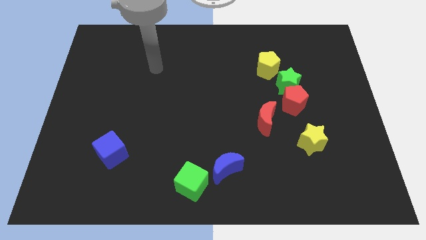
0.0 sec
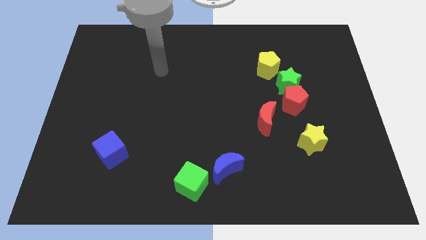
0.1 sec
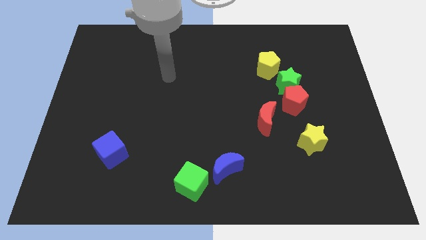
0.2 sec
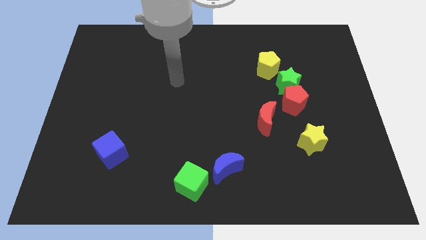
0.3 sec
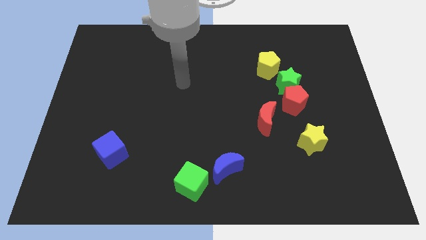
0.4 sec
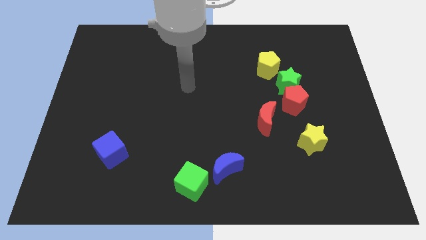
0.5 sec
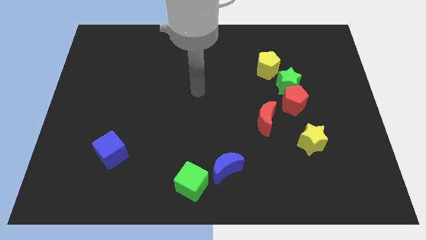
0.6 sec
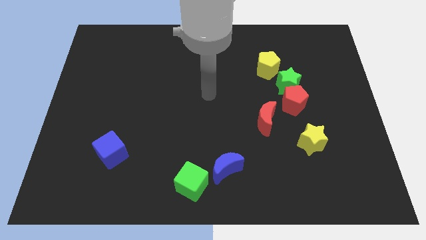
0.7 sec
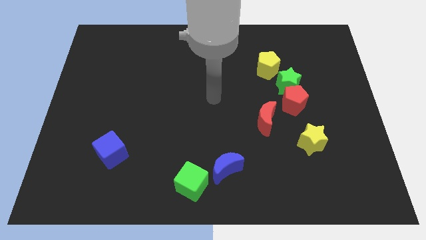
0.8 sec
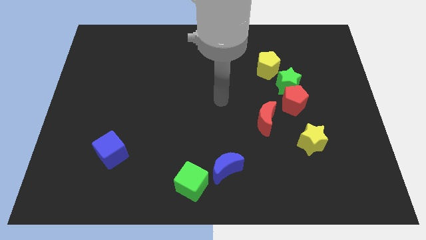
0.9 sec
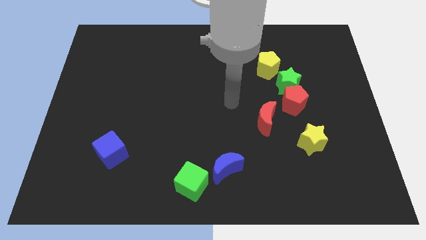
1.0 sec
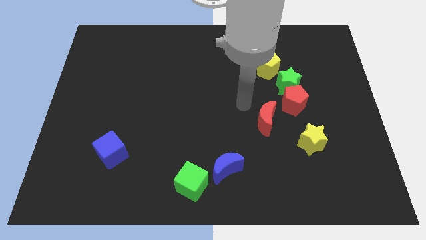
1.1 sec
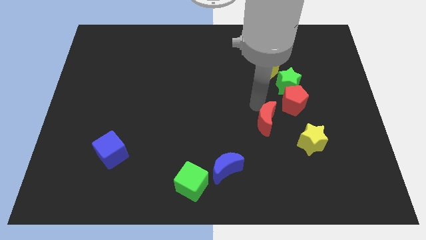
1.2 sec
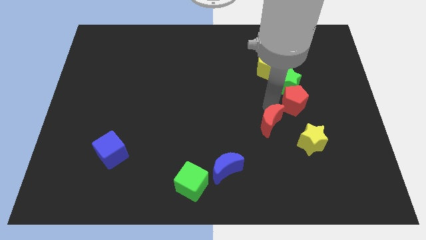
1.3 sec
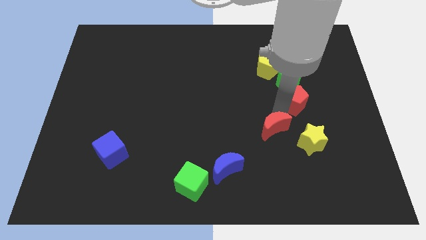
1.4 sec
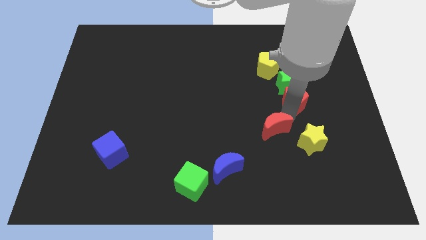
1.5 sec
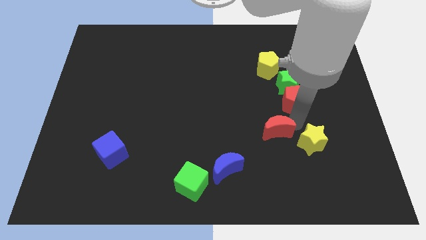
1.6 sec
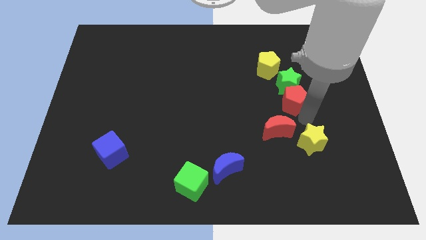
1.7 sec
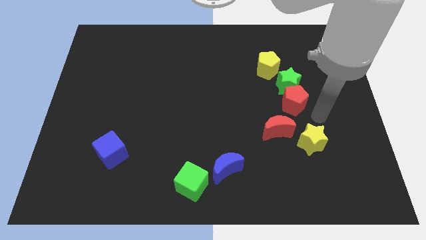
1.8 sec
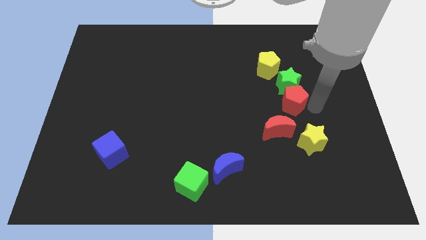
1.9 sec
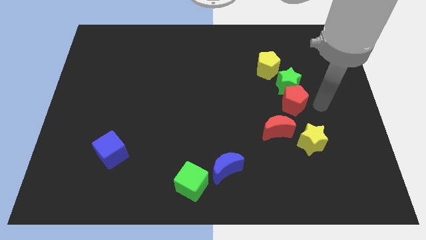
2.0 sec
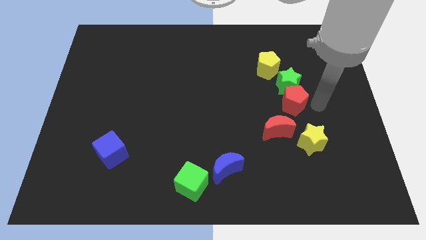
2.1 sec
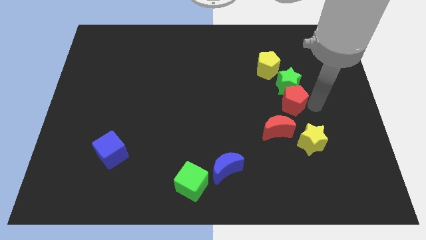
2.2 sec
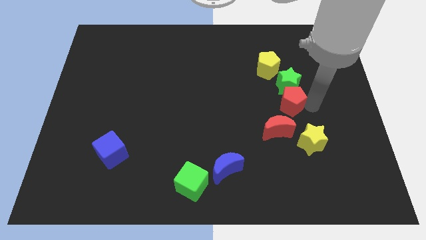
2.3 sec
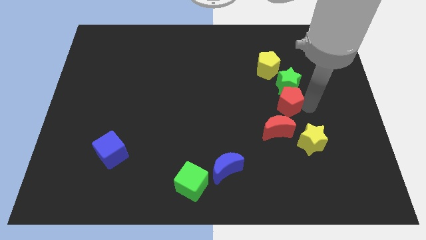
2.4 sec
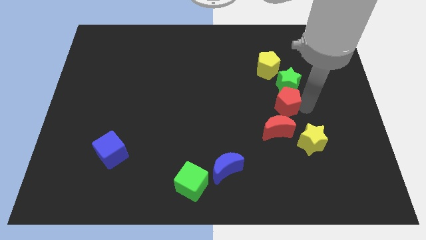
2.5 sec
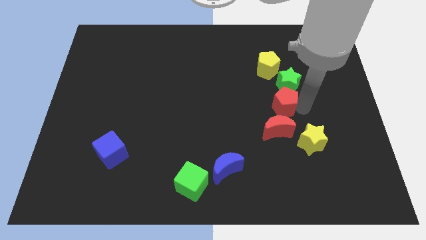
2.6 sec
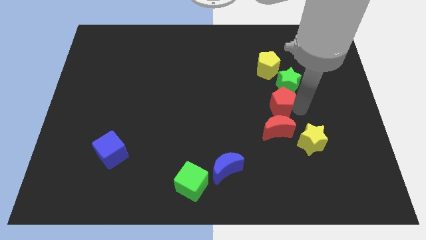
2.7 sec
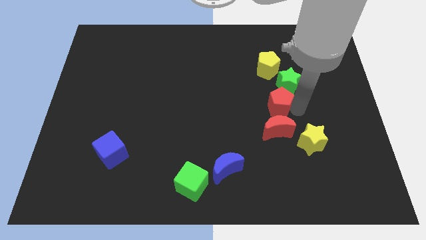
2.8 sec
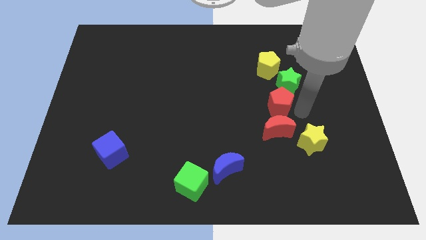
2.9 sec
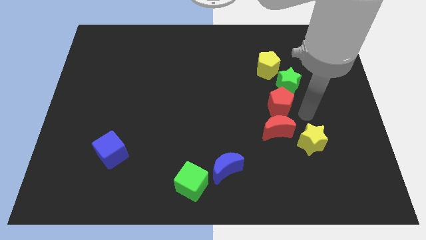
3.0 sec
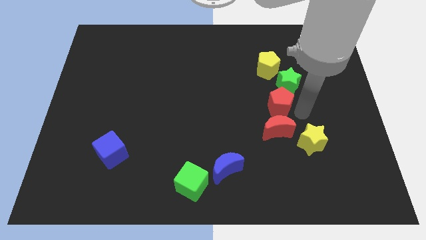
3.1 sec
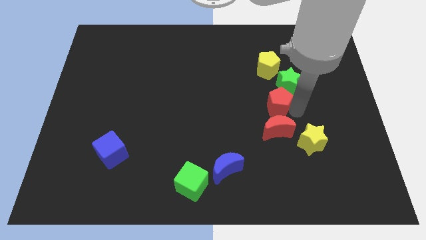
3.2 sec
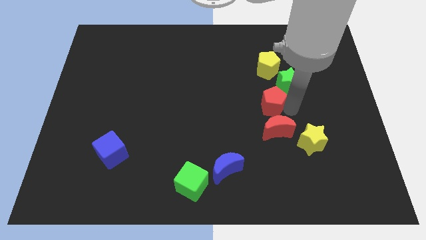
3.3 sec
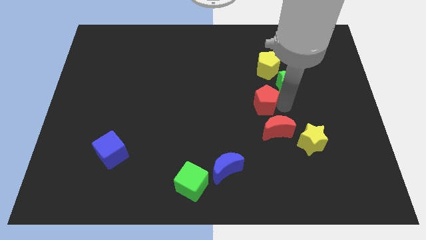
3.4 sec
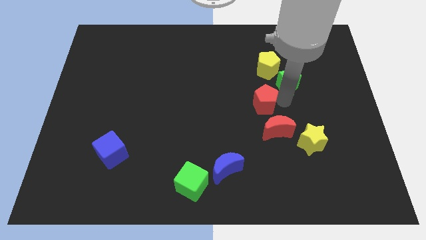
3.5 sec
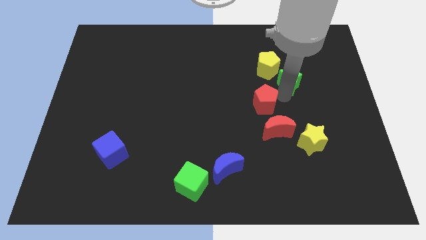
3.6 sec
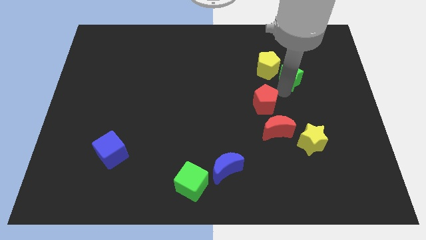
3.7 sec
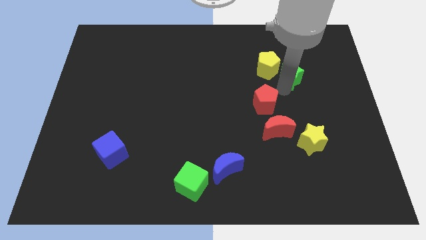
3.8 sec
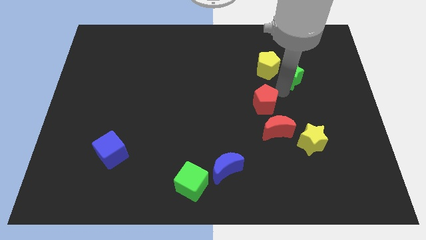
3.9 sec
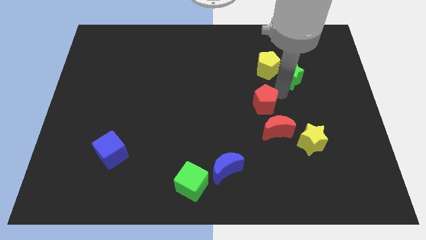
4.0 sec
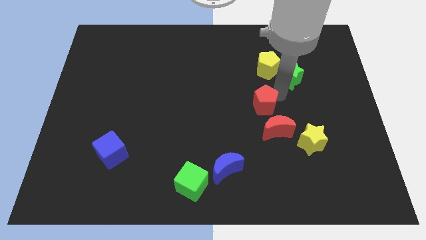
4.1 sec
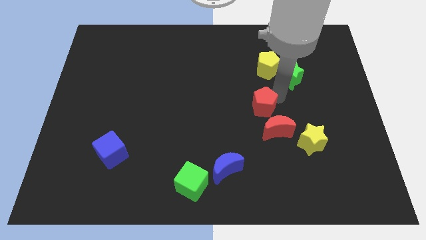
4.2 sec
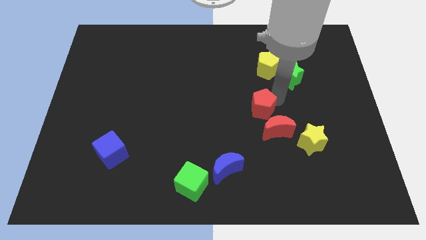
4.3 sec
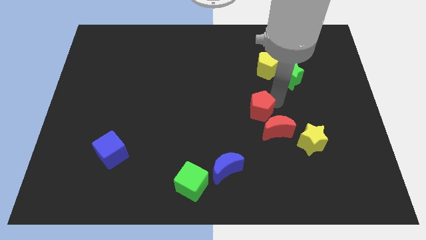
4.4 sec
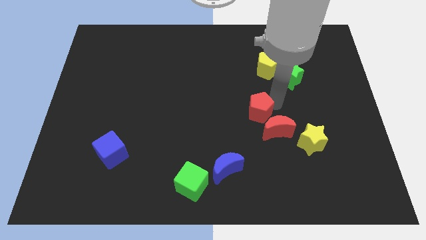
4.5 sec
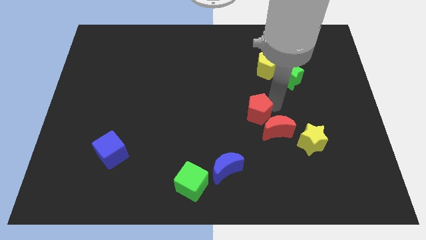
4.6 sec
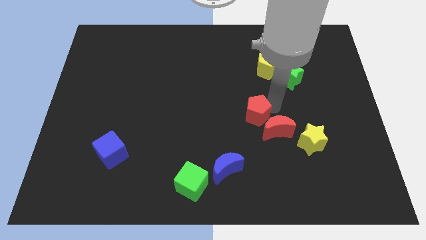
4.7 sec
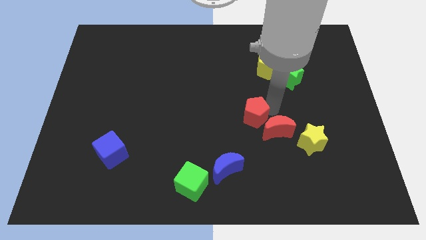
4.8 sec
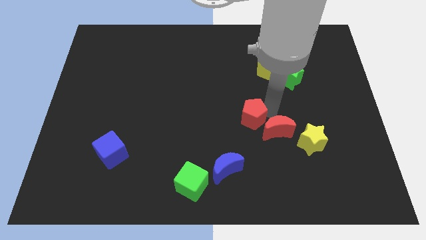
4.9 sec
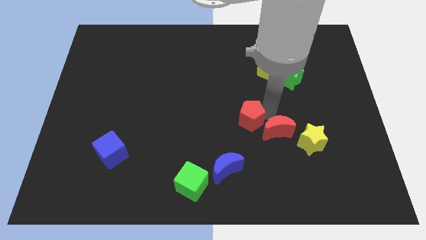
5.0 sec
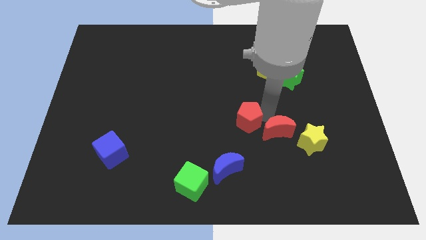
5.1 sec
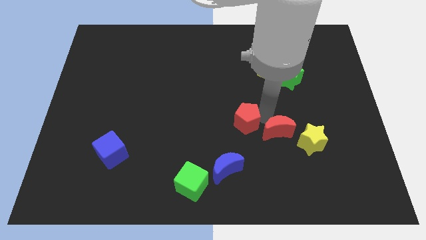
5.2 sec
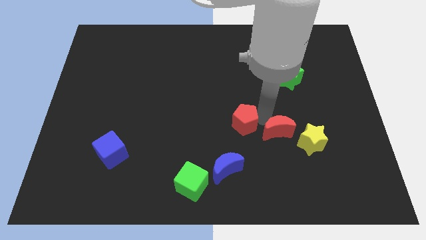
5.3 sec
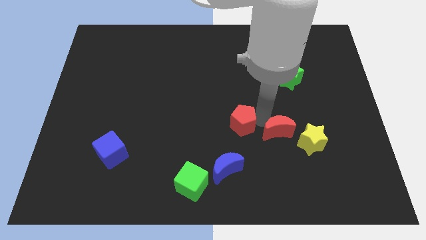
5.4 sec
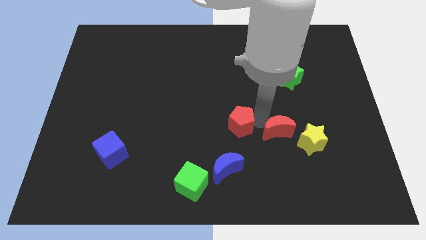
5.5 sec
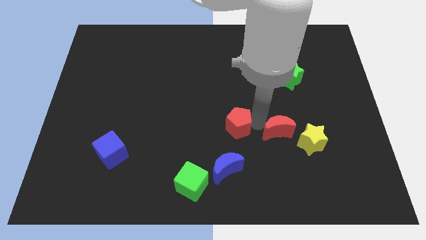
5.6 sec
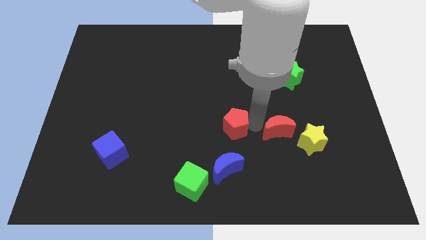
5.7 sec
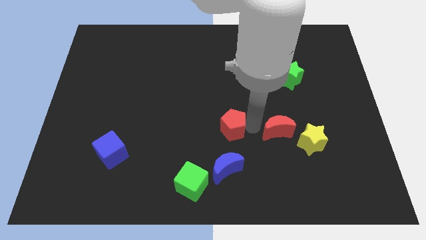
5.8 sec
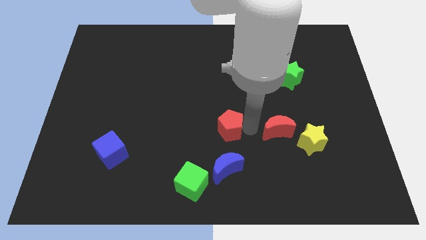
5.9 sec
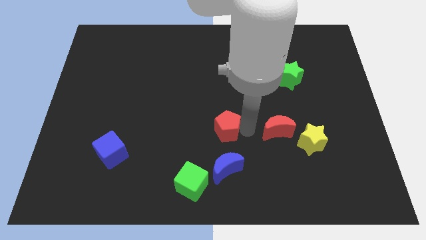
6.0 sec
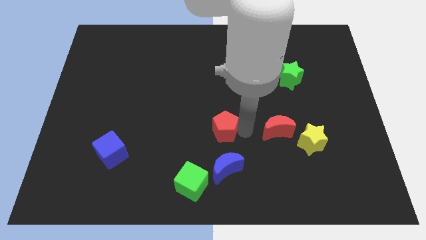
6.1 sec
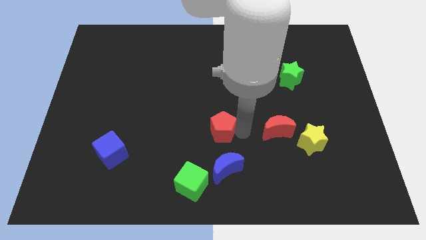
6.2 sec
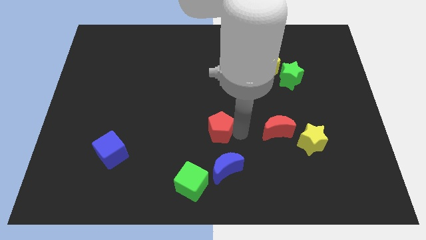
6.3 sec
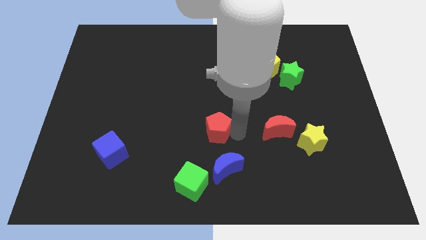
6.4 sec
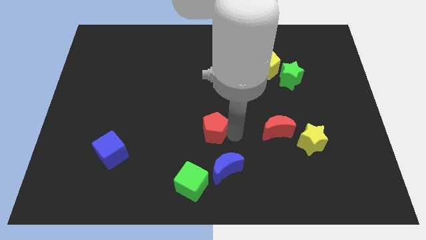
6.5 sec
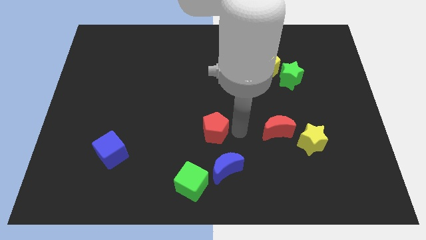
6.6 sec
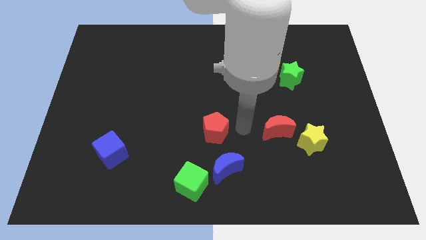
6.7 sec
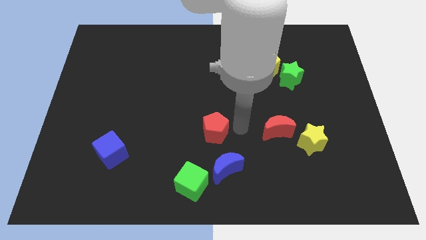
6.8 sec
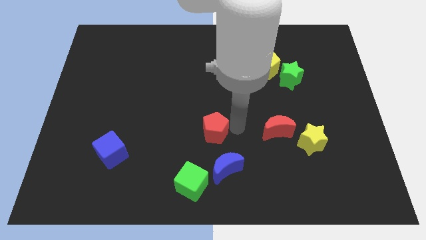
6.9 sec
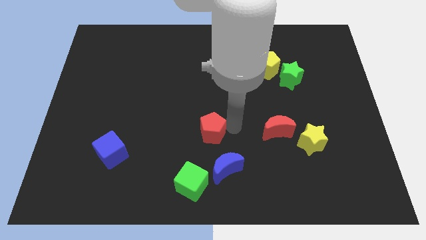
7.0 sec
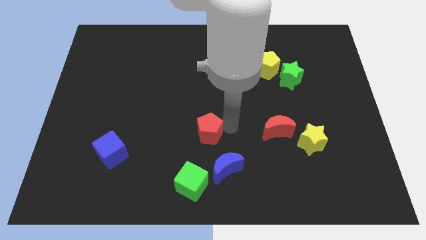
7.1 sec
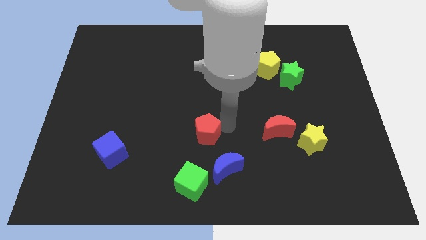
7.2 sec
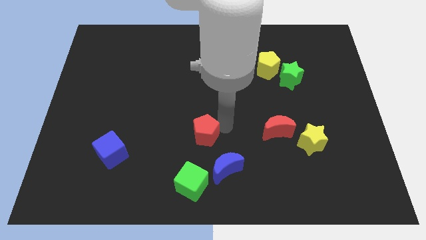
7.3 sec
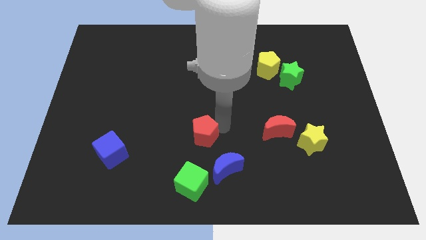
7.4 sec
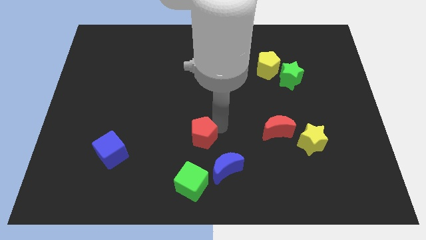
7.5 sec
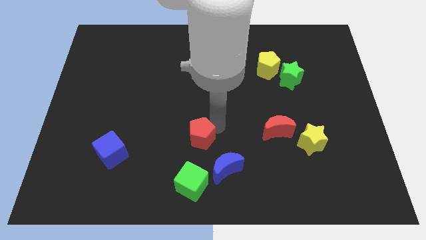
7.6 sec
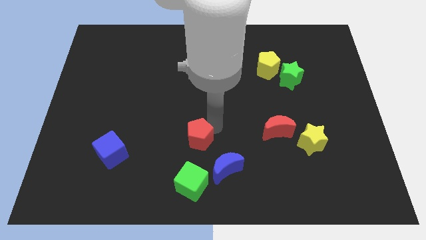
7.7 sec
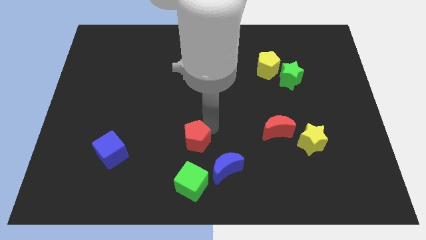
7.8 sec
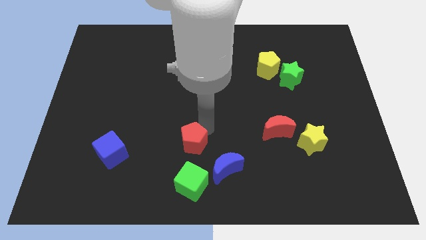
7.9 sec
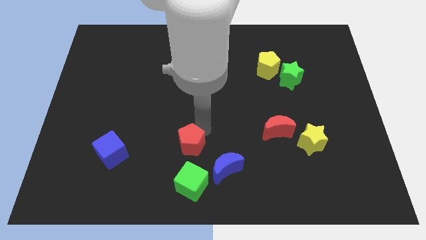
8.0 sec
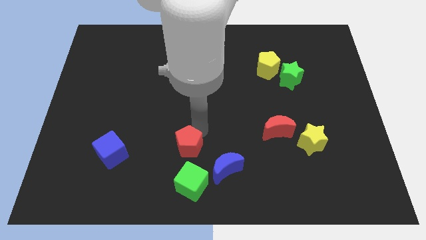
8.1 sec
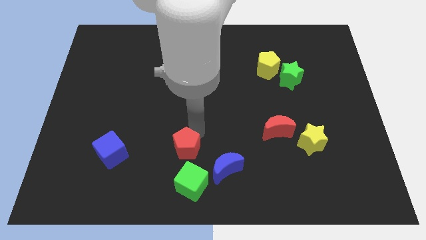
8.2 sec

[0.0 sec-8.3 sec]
put the red pentagon to the right of the blue cube
